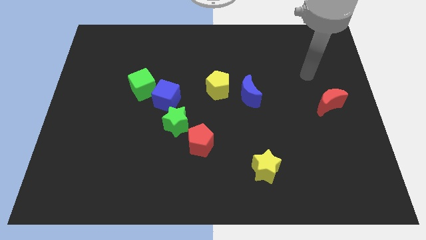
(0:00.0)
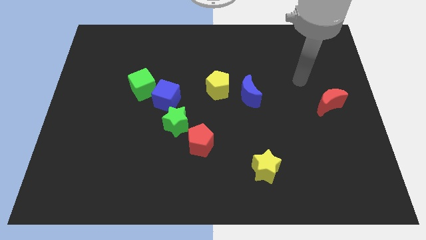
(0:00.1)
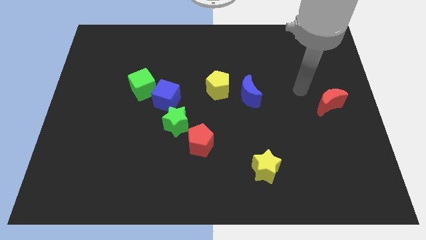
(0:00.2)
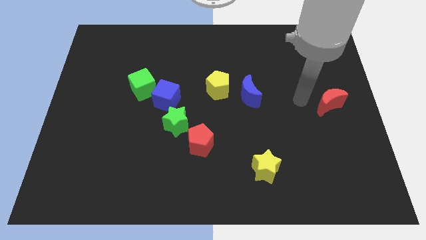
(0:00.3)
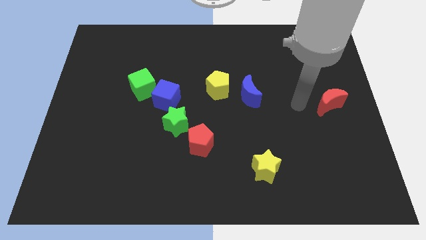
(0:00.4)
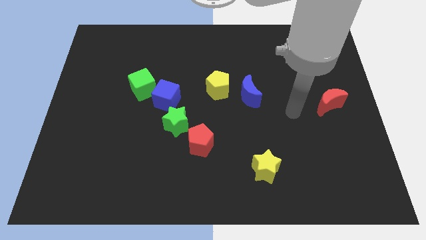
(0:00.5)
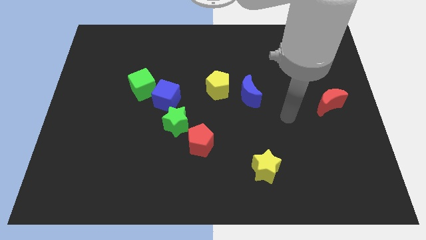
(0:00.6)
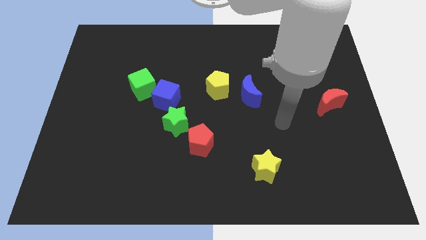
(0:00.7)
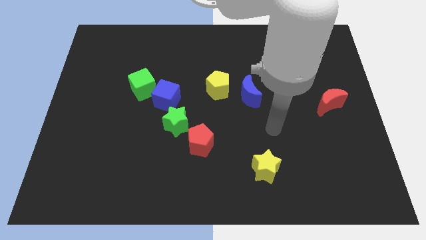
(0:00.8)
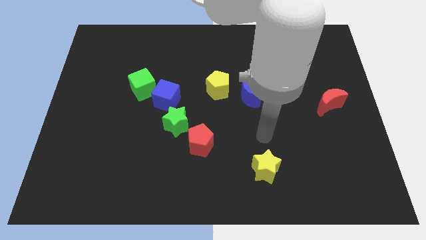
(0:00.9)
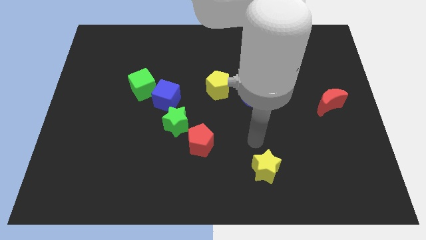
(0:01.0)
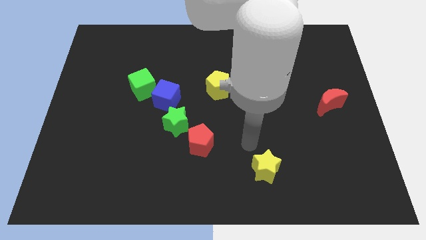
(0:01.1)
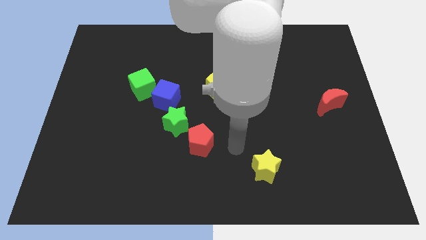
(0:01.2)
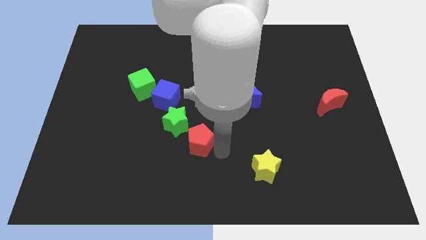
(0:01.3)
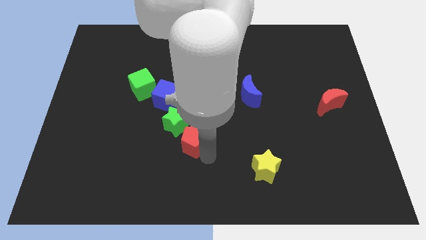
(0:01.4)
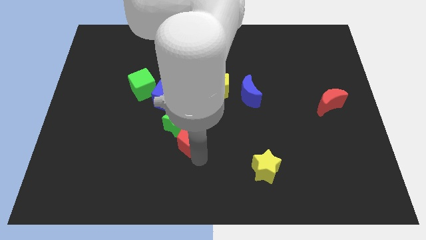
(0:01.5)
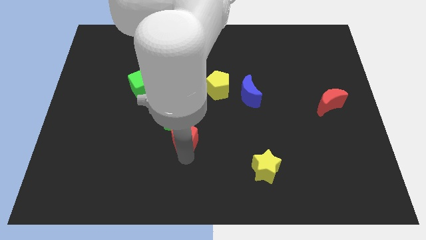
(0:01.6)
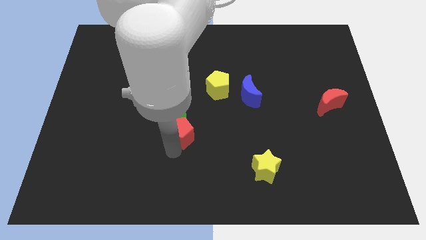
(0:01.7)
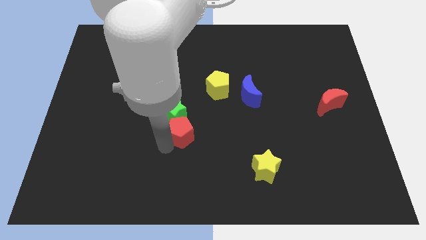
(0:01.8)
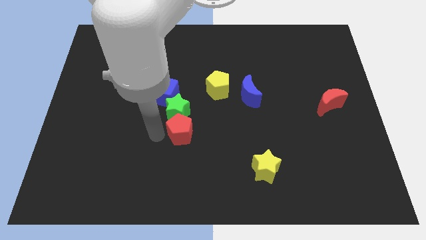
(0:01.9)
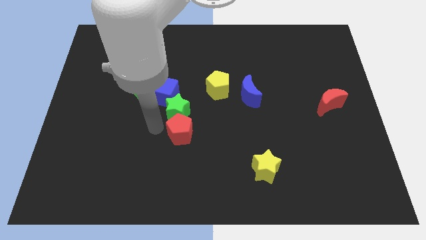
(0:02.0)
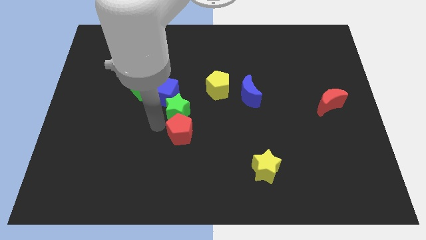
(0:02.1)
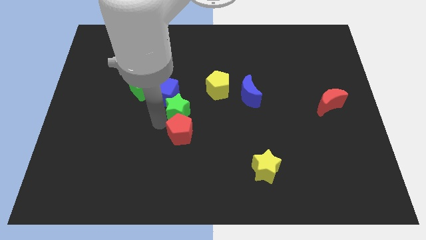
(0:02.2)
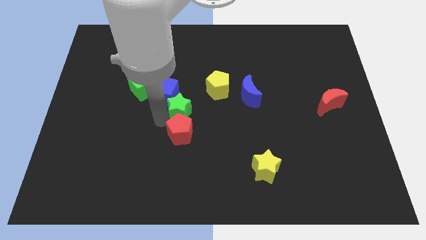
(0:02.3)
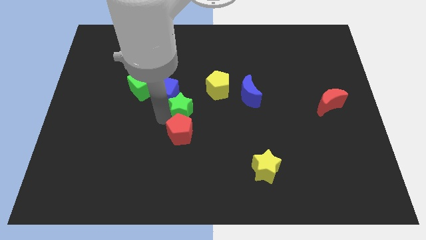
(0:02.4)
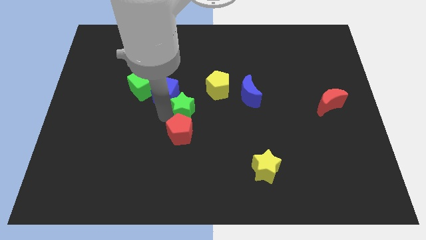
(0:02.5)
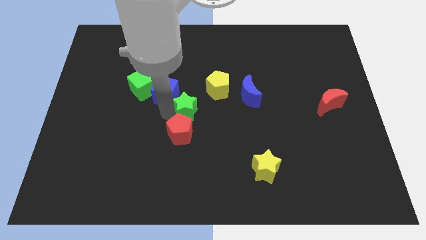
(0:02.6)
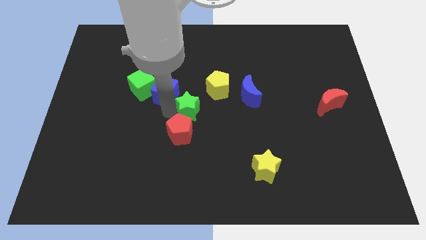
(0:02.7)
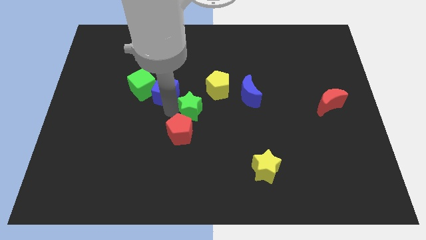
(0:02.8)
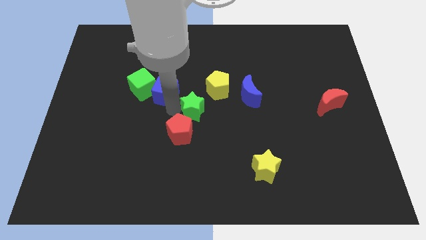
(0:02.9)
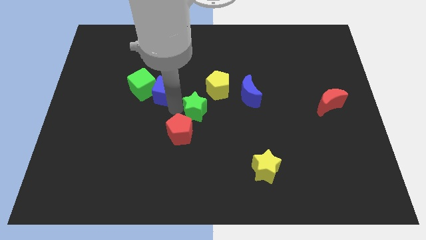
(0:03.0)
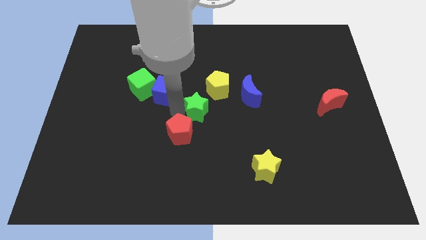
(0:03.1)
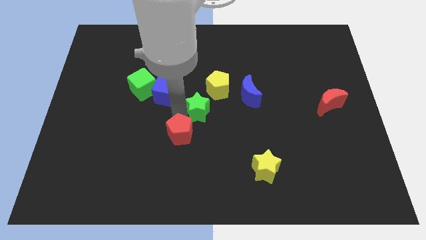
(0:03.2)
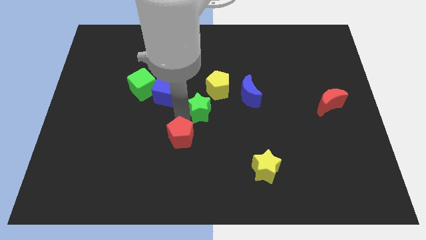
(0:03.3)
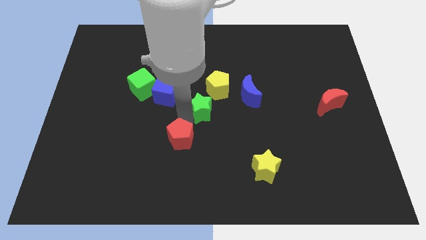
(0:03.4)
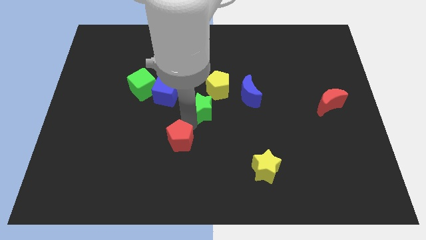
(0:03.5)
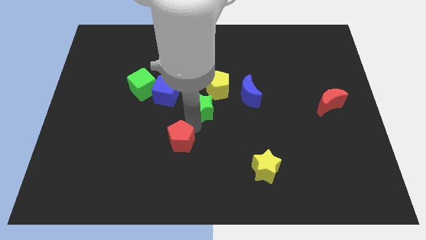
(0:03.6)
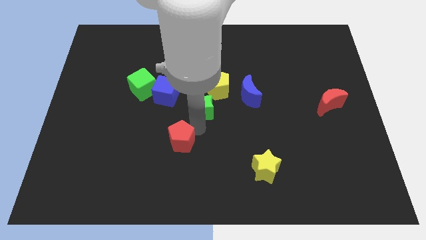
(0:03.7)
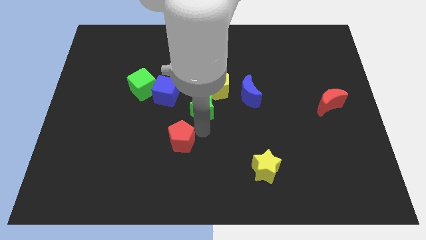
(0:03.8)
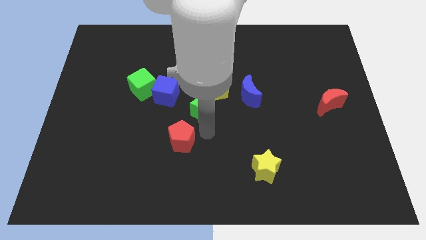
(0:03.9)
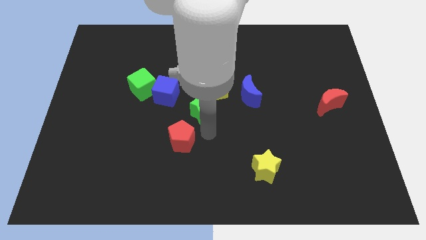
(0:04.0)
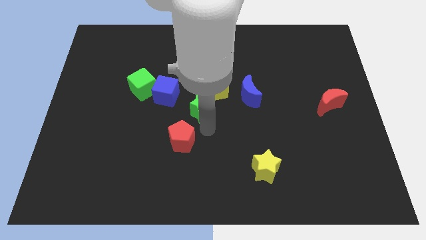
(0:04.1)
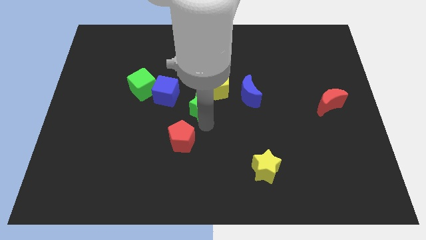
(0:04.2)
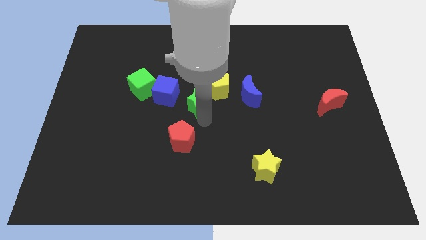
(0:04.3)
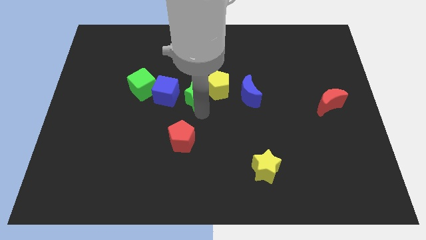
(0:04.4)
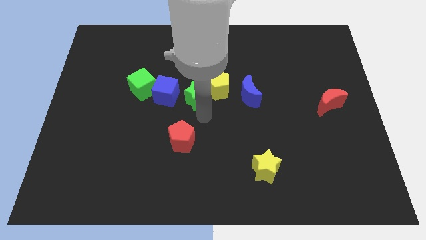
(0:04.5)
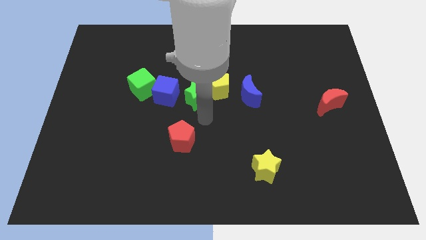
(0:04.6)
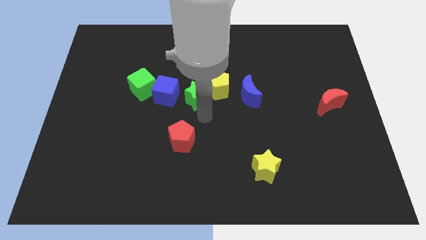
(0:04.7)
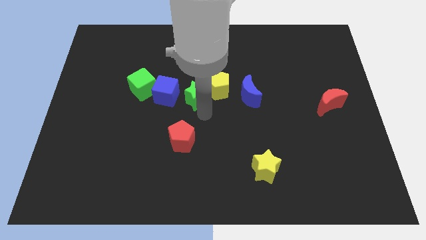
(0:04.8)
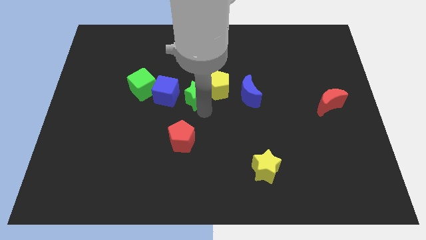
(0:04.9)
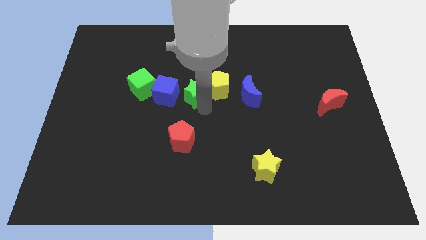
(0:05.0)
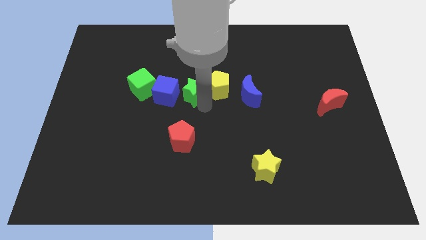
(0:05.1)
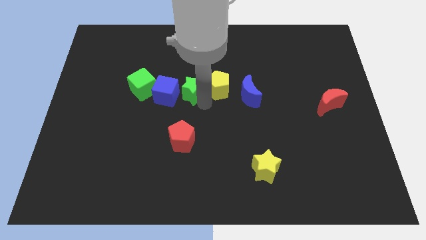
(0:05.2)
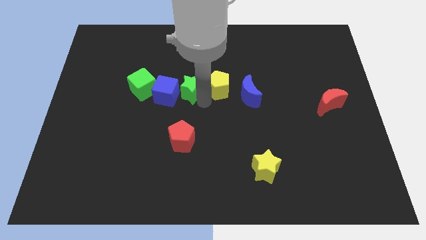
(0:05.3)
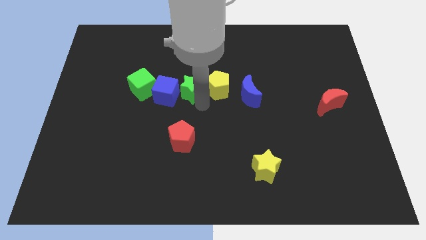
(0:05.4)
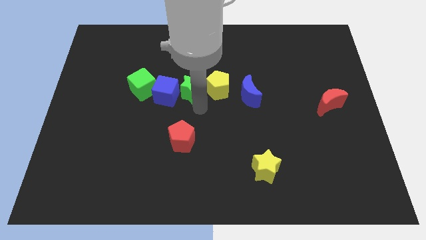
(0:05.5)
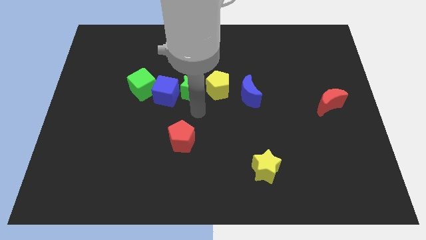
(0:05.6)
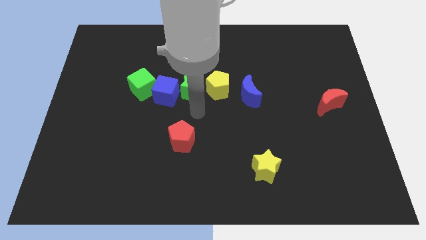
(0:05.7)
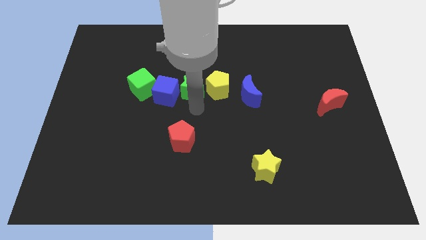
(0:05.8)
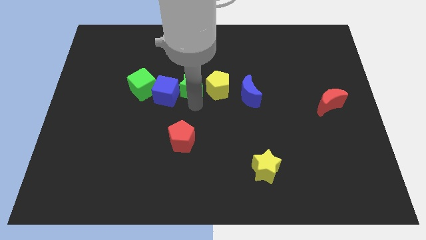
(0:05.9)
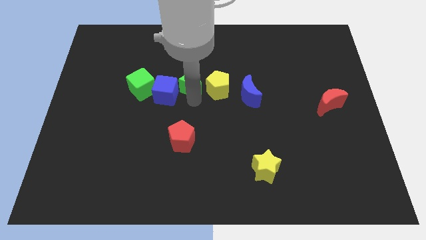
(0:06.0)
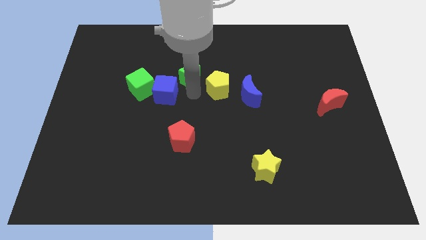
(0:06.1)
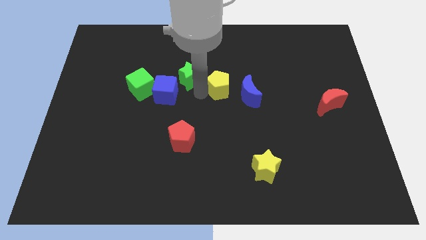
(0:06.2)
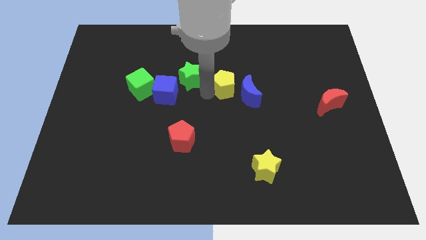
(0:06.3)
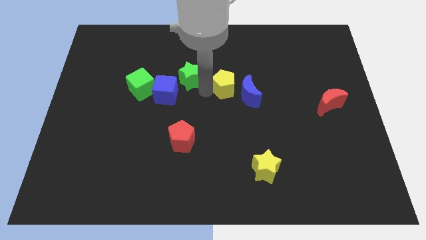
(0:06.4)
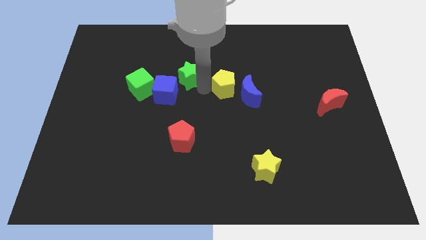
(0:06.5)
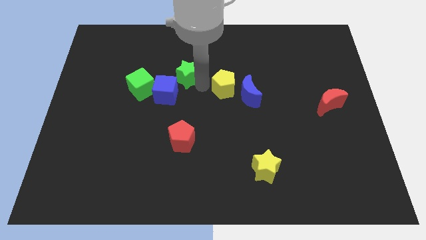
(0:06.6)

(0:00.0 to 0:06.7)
put the green star above the blue cube
